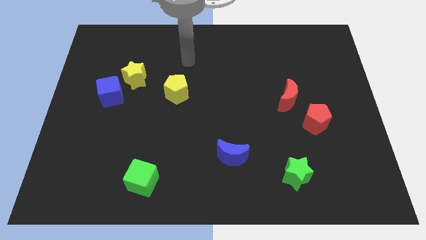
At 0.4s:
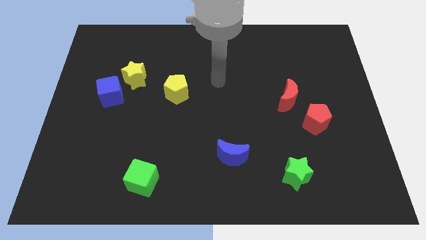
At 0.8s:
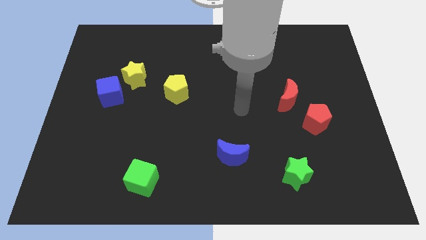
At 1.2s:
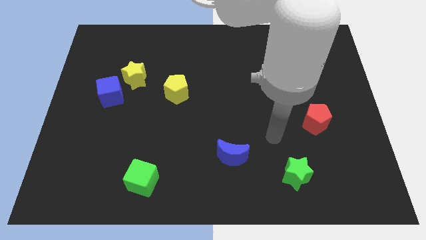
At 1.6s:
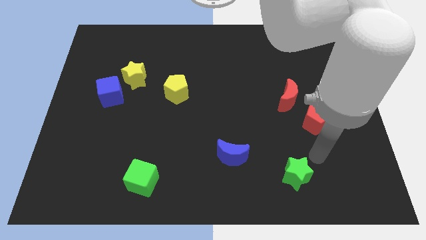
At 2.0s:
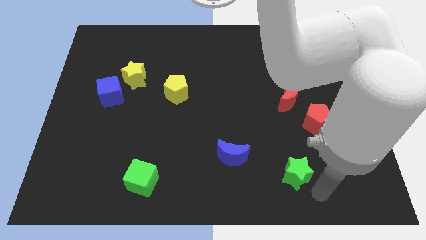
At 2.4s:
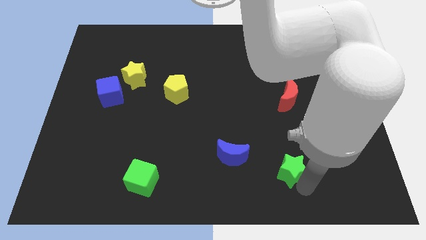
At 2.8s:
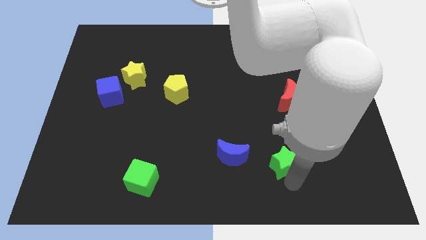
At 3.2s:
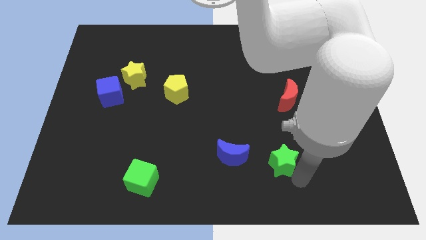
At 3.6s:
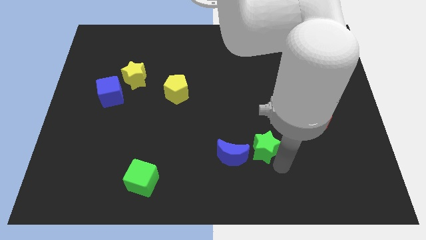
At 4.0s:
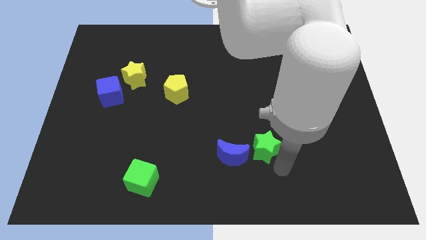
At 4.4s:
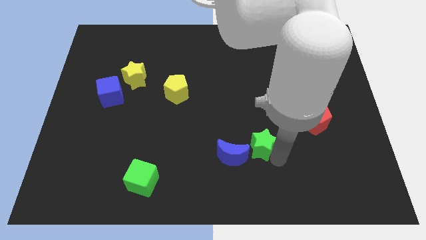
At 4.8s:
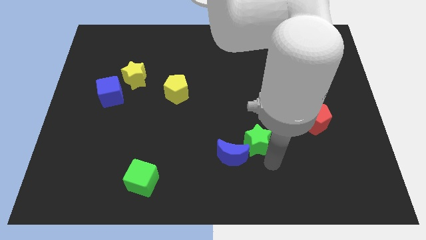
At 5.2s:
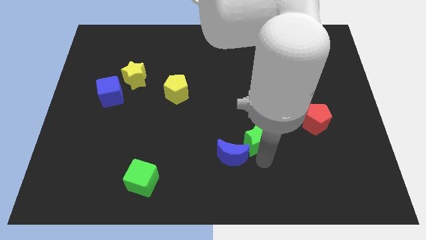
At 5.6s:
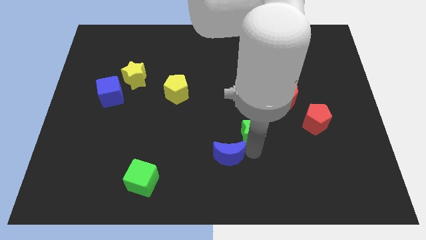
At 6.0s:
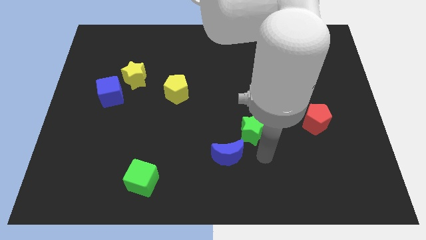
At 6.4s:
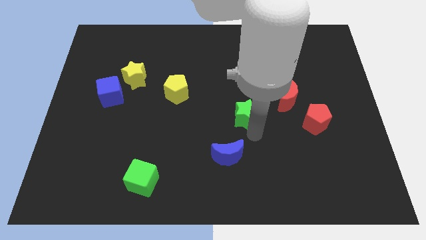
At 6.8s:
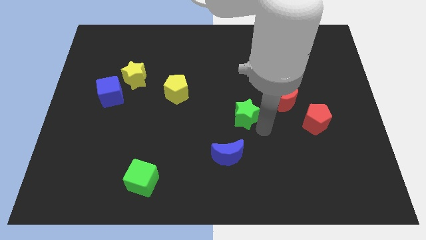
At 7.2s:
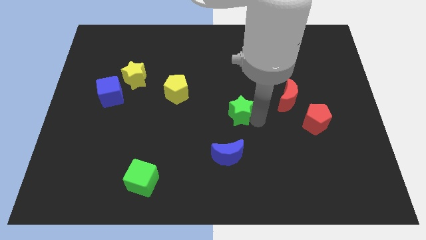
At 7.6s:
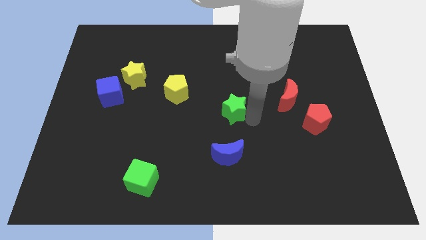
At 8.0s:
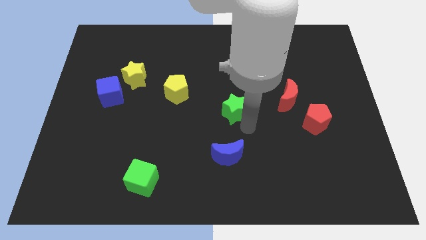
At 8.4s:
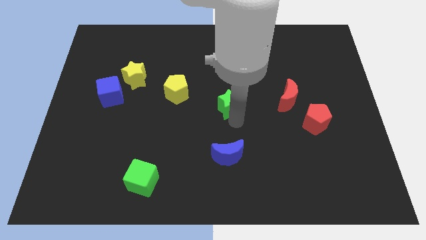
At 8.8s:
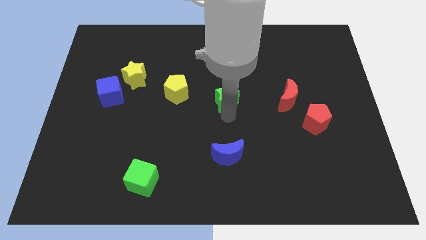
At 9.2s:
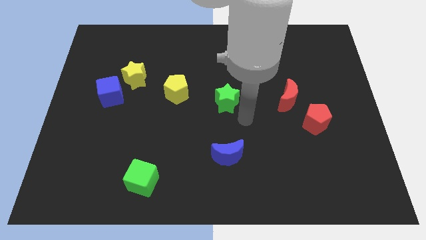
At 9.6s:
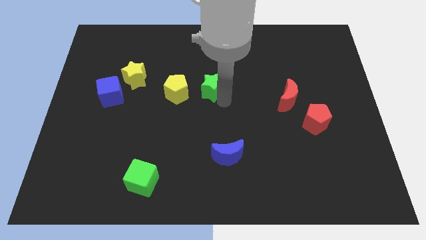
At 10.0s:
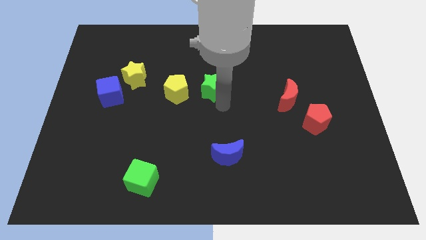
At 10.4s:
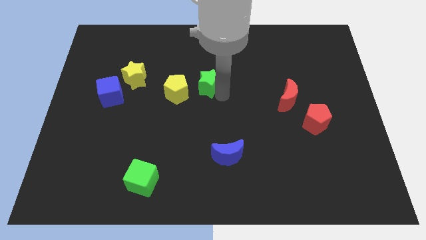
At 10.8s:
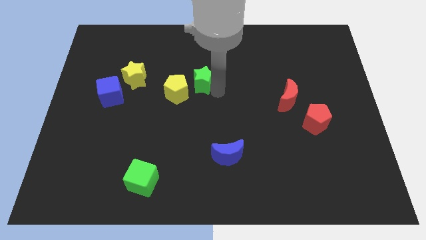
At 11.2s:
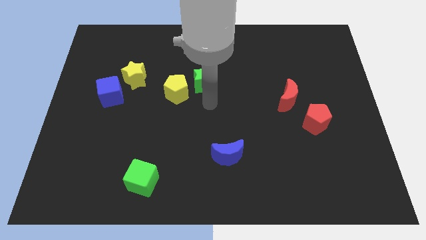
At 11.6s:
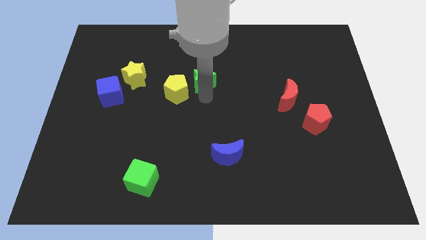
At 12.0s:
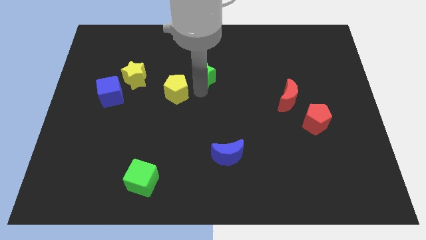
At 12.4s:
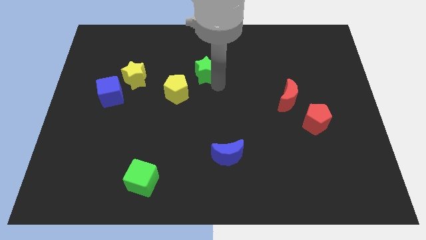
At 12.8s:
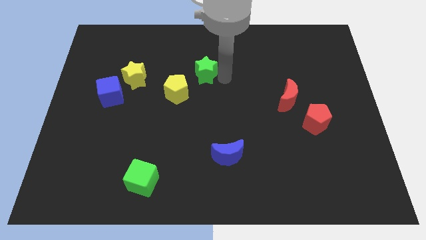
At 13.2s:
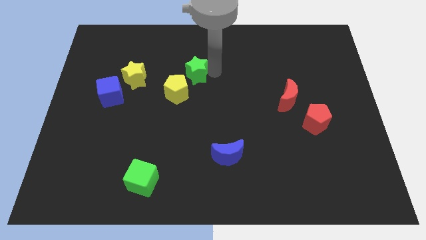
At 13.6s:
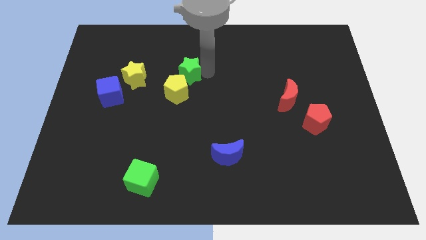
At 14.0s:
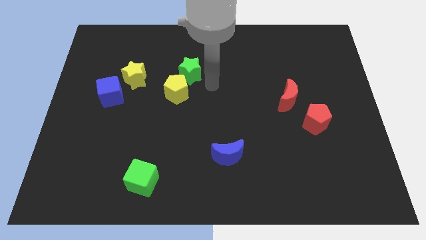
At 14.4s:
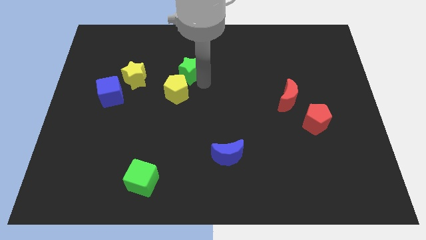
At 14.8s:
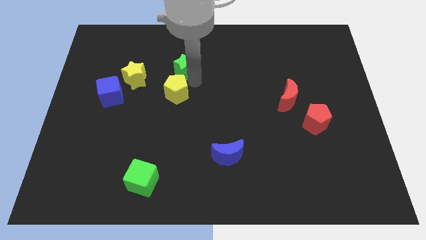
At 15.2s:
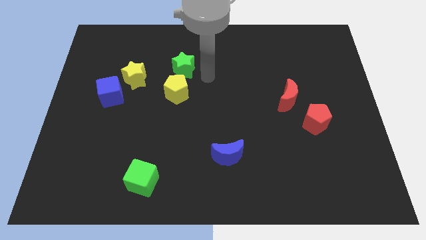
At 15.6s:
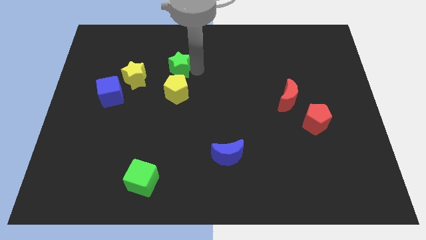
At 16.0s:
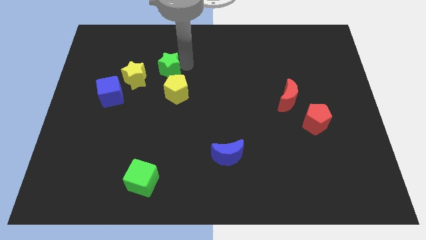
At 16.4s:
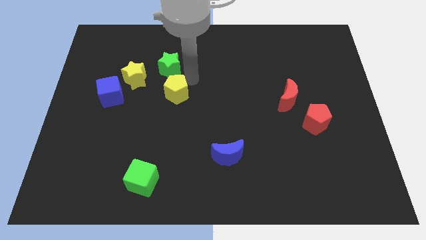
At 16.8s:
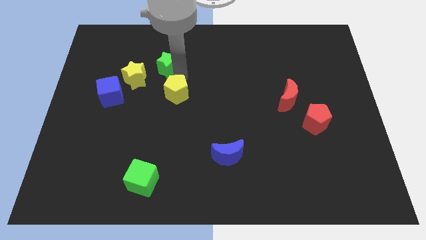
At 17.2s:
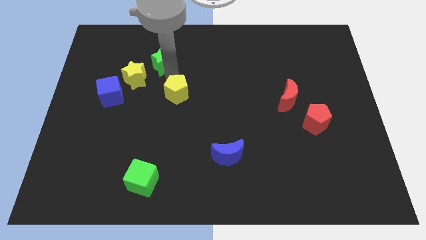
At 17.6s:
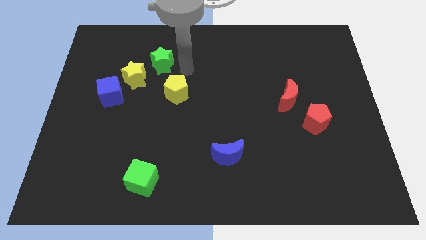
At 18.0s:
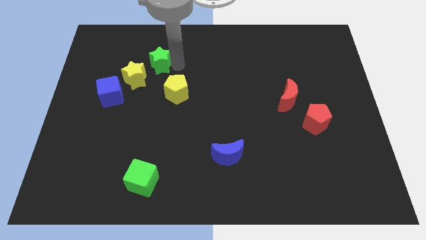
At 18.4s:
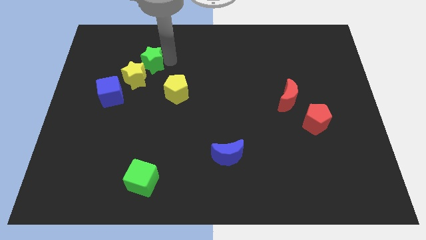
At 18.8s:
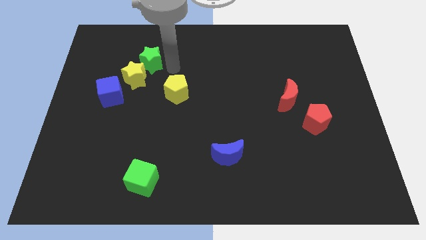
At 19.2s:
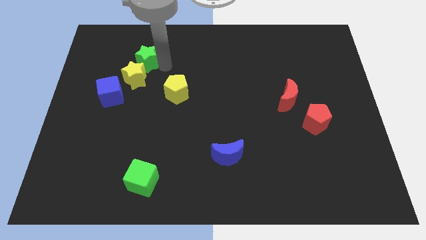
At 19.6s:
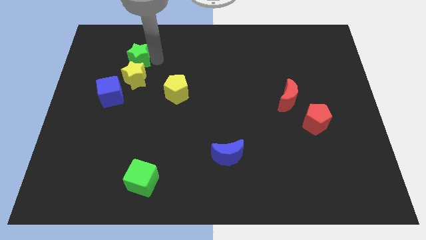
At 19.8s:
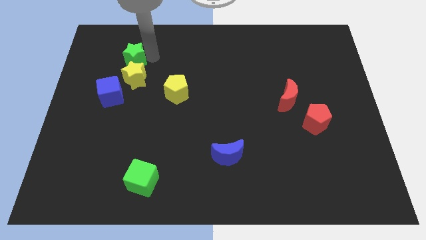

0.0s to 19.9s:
move the green star above the blue cube

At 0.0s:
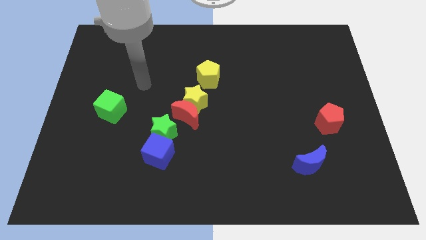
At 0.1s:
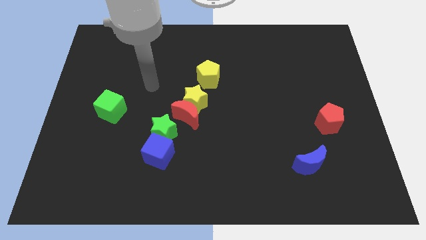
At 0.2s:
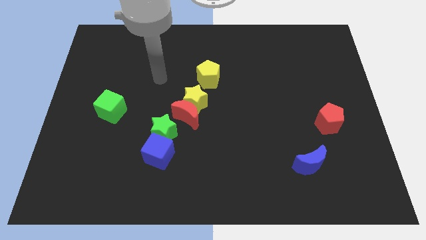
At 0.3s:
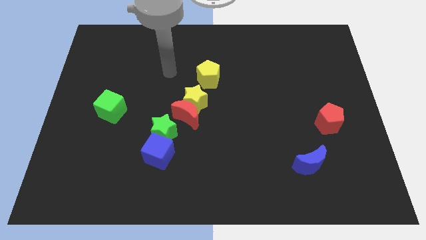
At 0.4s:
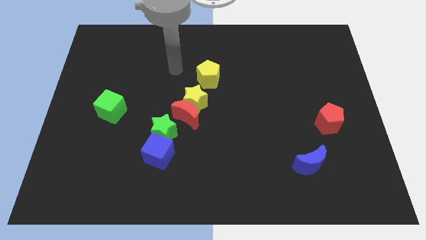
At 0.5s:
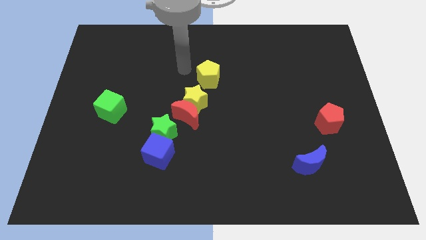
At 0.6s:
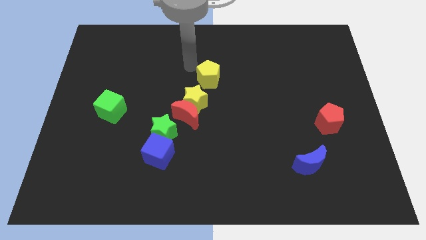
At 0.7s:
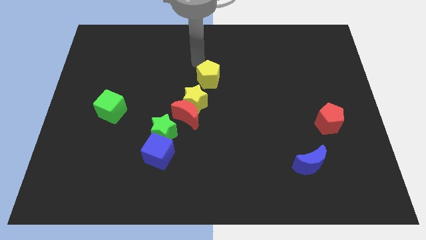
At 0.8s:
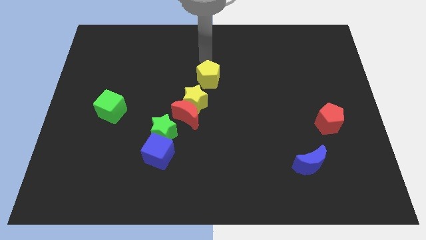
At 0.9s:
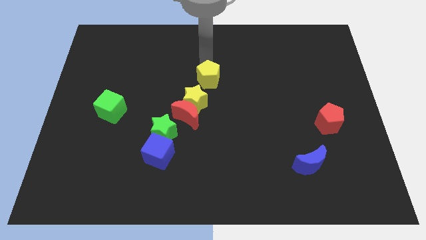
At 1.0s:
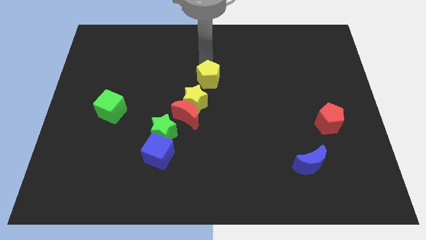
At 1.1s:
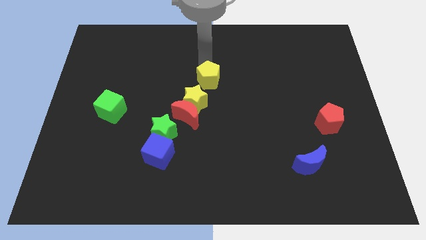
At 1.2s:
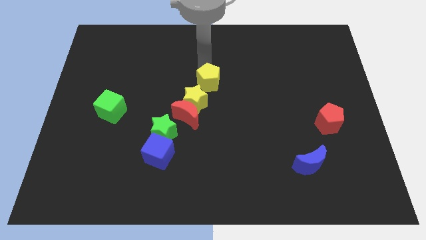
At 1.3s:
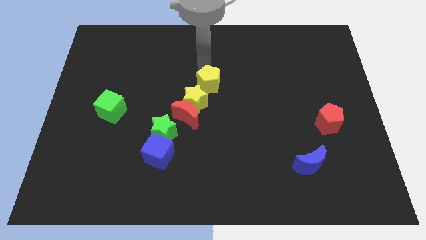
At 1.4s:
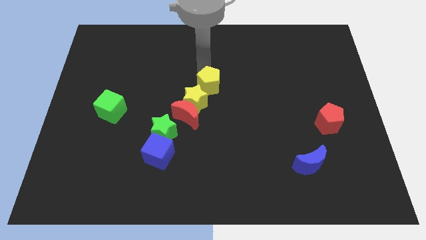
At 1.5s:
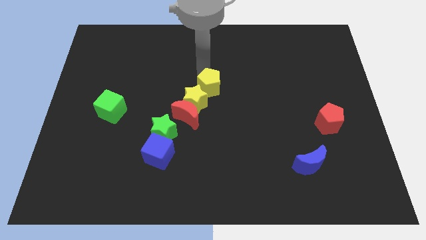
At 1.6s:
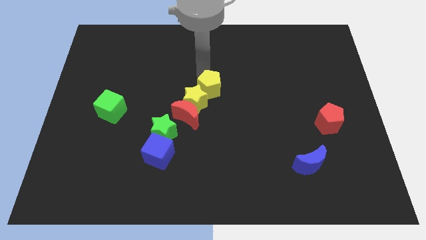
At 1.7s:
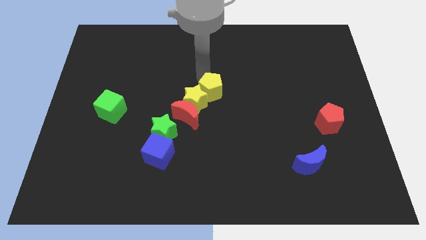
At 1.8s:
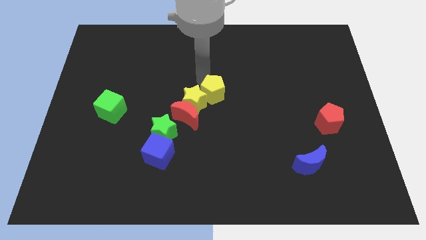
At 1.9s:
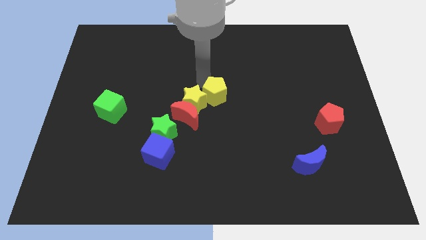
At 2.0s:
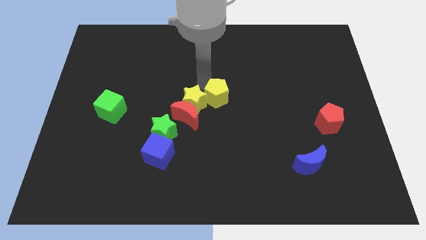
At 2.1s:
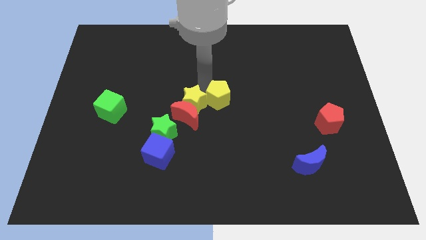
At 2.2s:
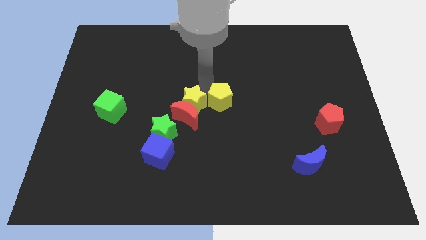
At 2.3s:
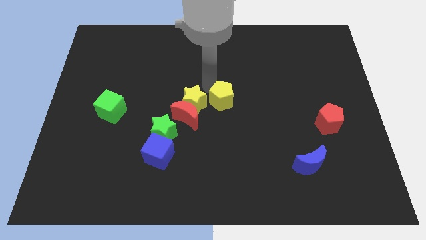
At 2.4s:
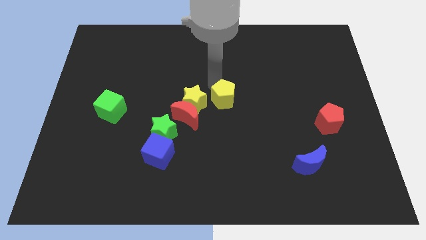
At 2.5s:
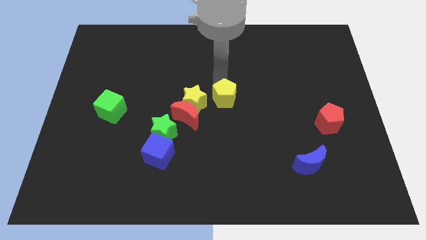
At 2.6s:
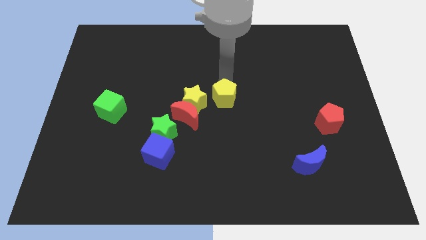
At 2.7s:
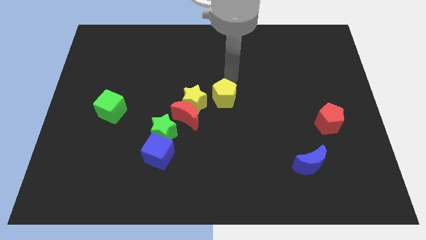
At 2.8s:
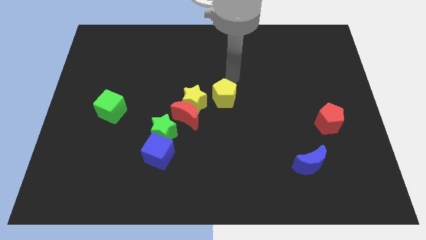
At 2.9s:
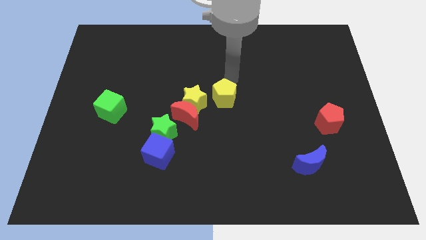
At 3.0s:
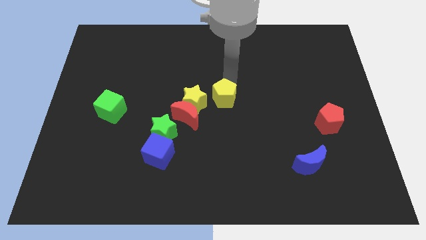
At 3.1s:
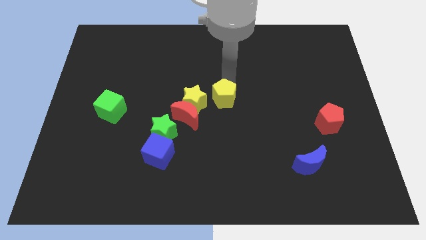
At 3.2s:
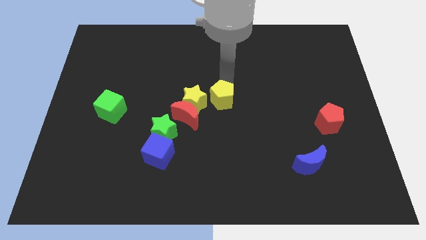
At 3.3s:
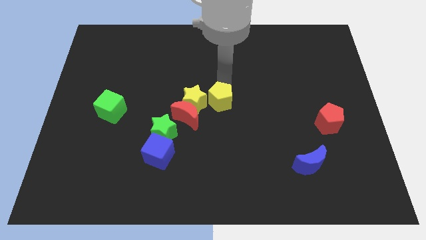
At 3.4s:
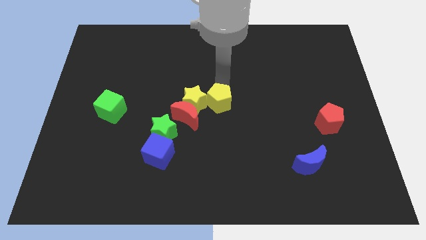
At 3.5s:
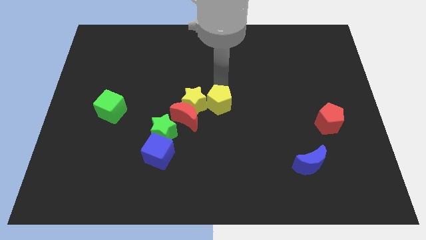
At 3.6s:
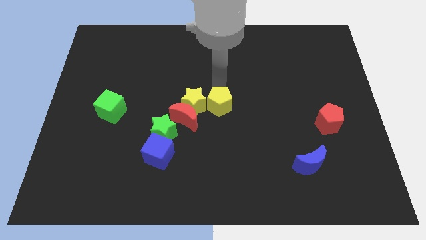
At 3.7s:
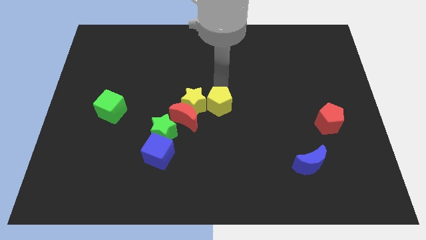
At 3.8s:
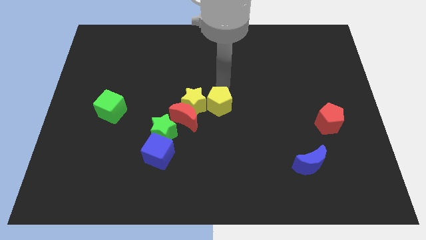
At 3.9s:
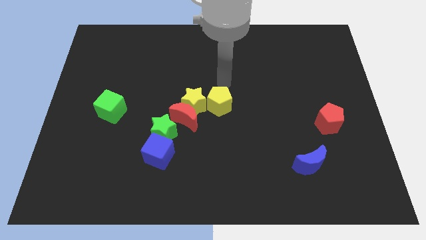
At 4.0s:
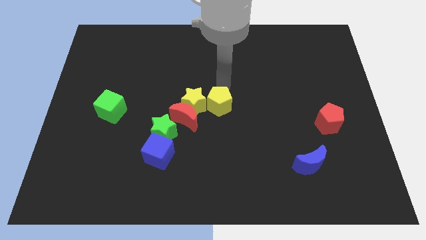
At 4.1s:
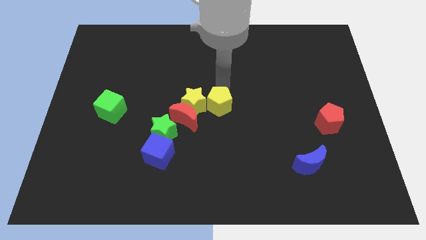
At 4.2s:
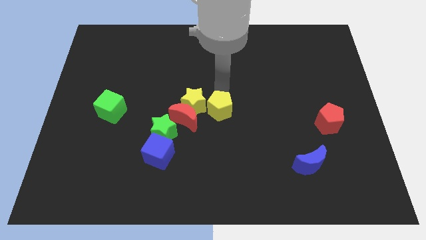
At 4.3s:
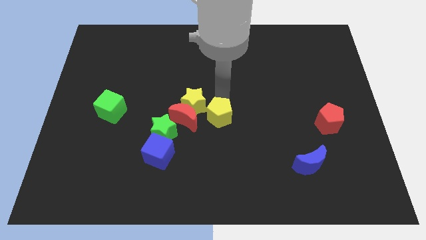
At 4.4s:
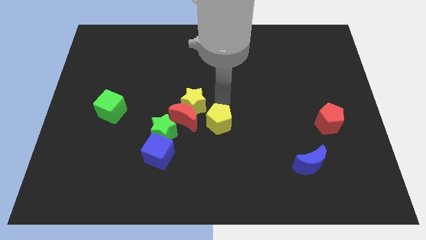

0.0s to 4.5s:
slide the yellow pentagon to the right side of the green star
